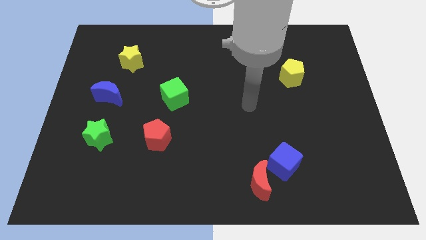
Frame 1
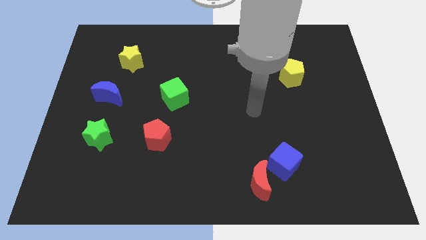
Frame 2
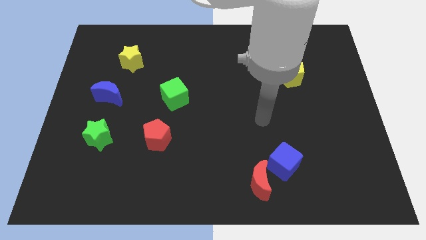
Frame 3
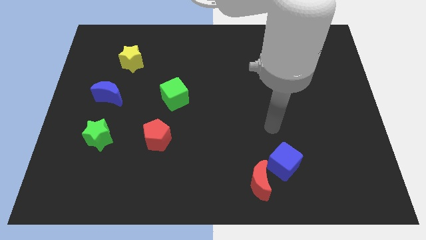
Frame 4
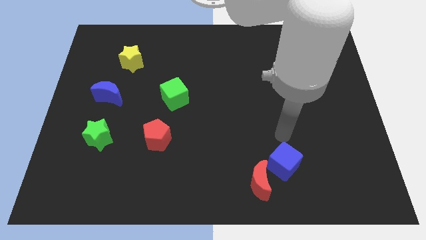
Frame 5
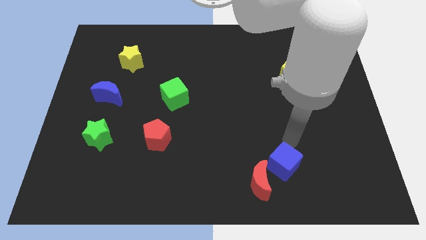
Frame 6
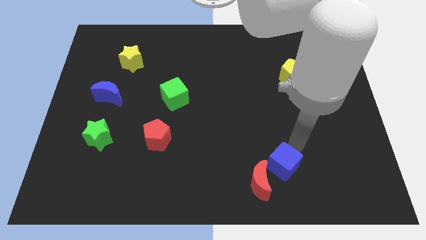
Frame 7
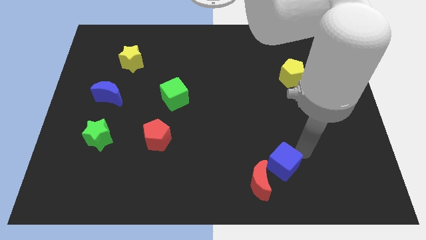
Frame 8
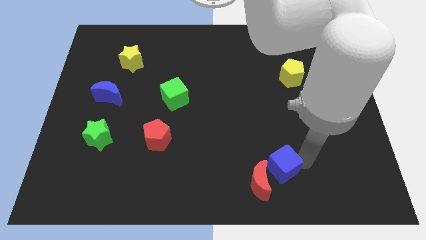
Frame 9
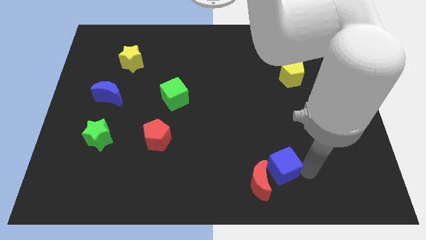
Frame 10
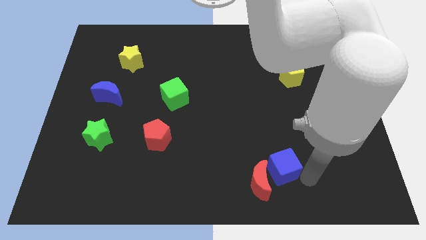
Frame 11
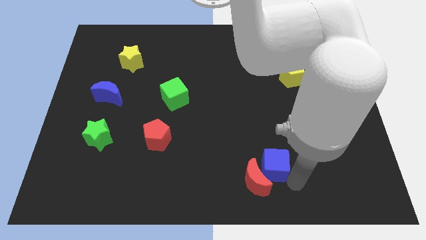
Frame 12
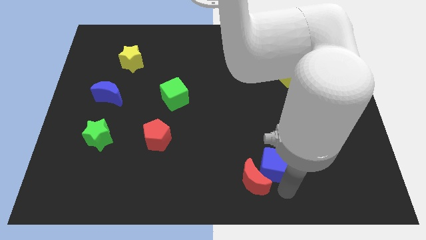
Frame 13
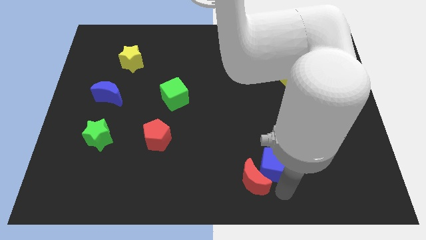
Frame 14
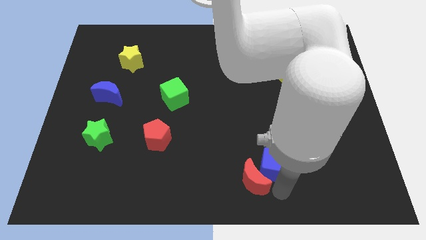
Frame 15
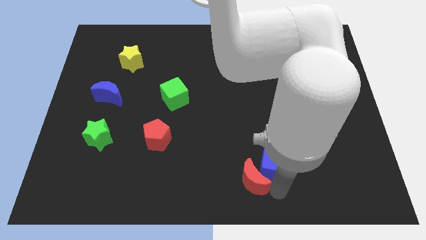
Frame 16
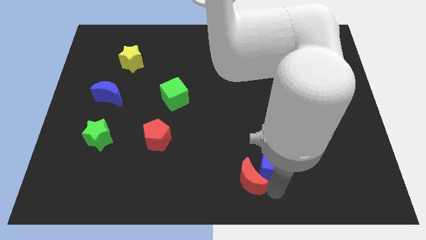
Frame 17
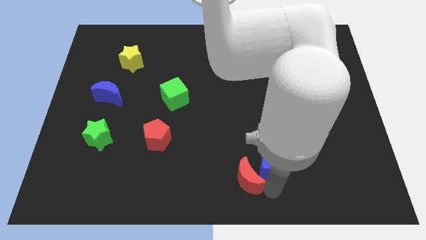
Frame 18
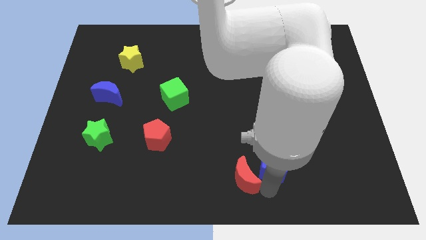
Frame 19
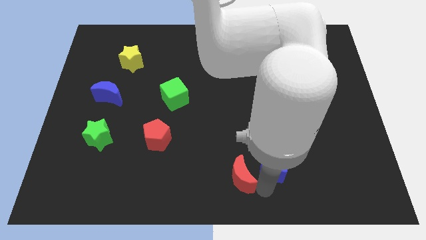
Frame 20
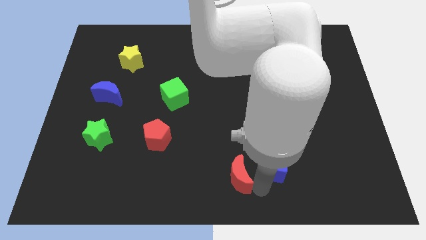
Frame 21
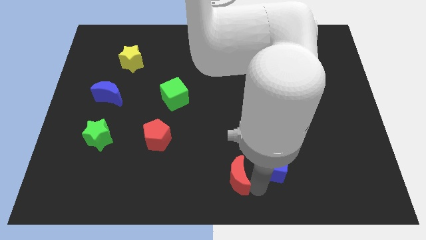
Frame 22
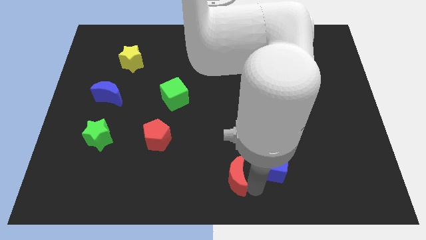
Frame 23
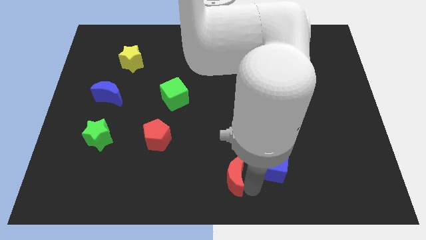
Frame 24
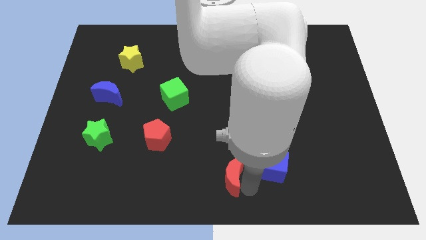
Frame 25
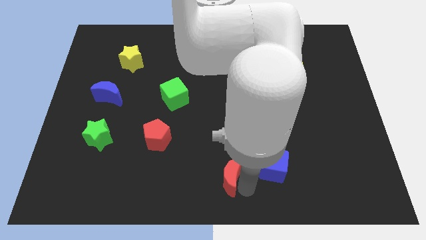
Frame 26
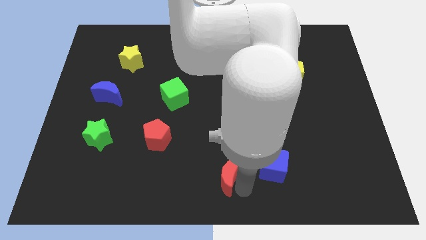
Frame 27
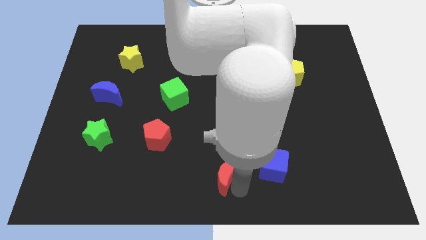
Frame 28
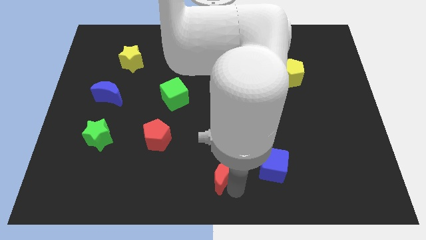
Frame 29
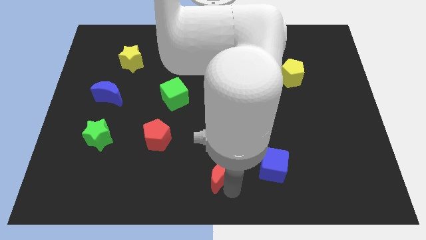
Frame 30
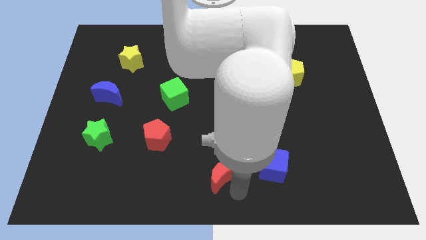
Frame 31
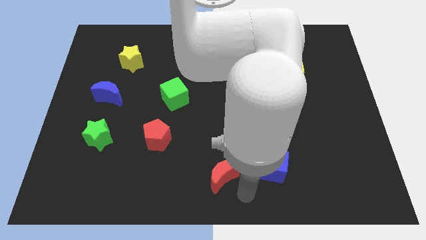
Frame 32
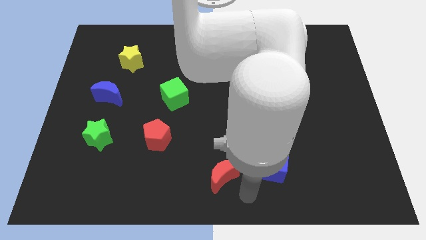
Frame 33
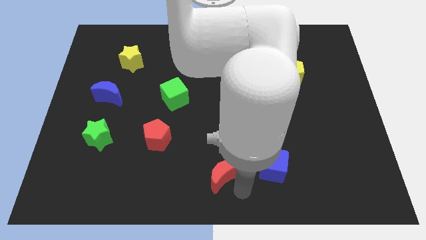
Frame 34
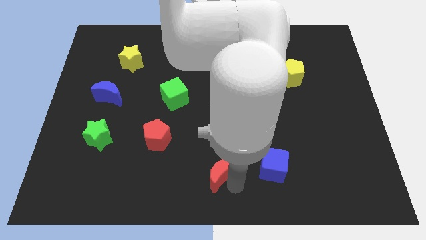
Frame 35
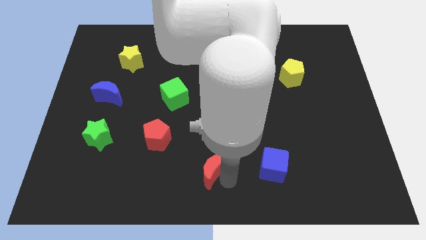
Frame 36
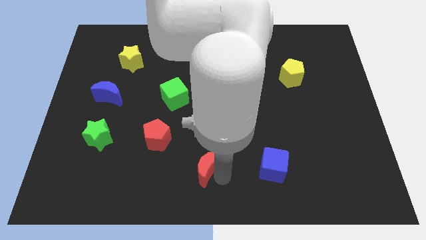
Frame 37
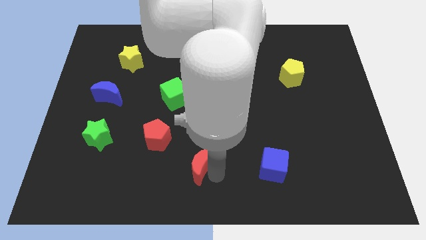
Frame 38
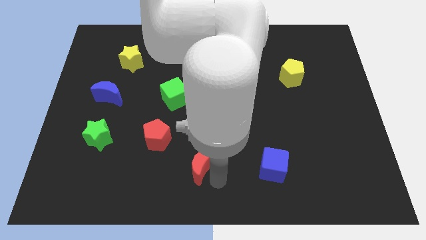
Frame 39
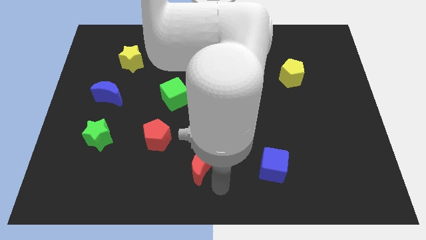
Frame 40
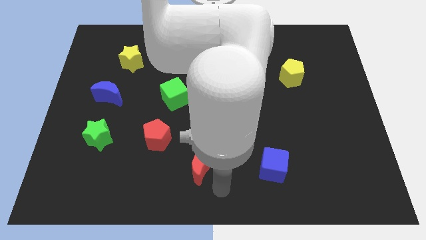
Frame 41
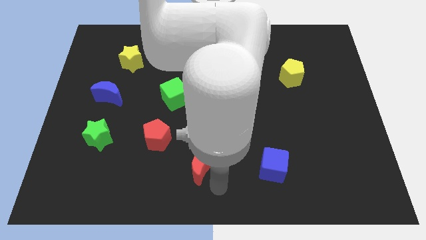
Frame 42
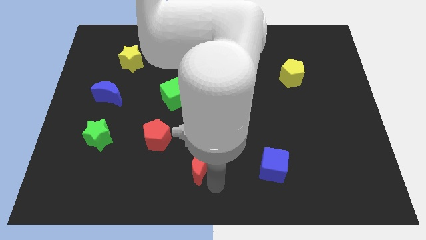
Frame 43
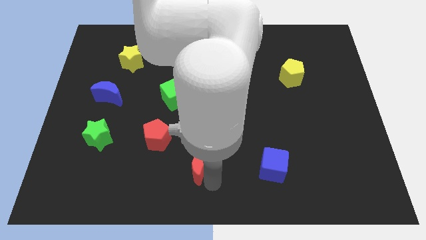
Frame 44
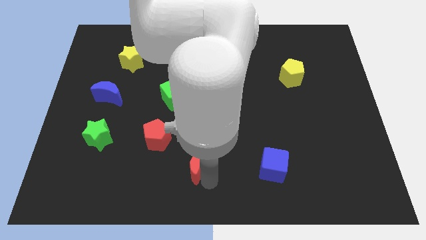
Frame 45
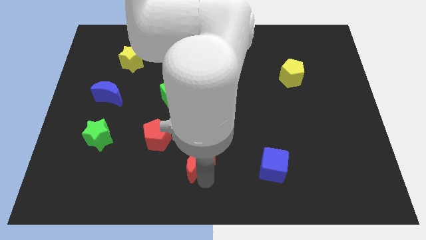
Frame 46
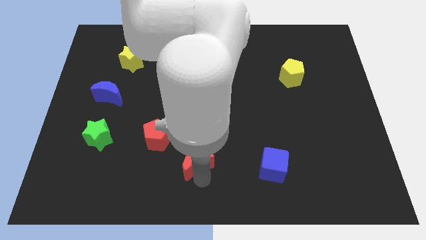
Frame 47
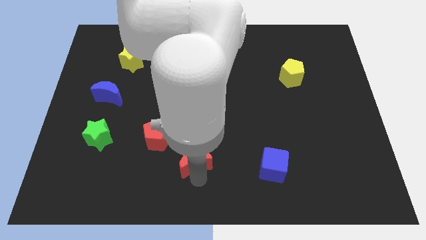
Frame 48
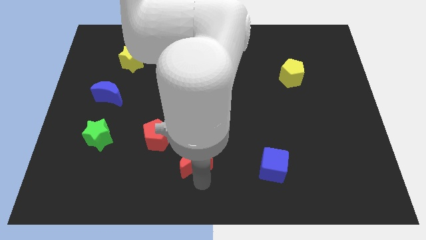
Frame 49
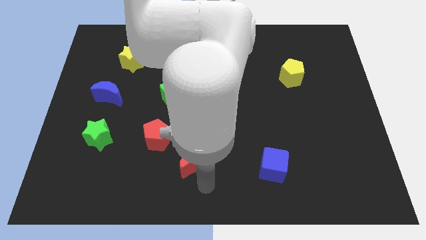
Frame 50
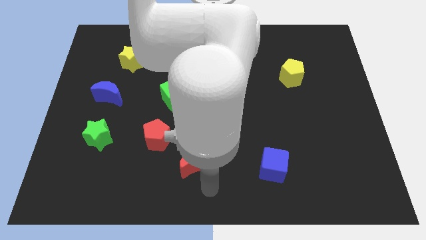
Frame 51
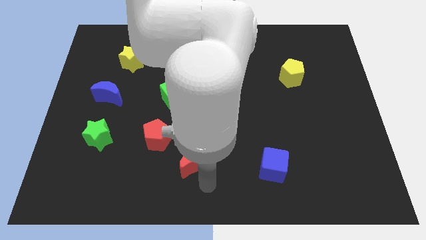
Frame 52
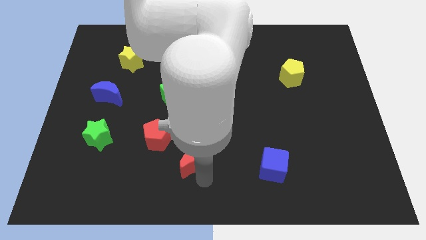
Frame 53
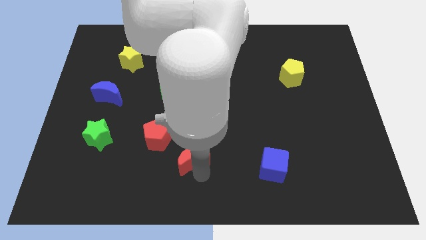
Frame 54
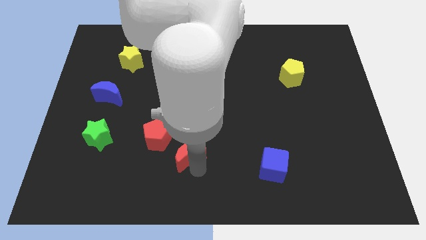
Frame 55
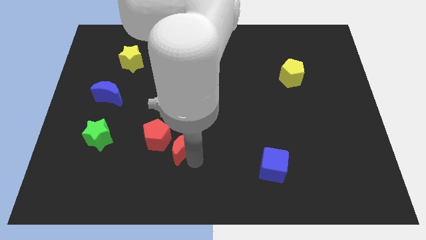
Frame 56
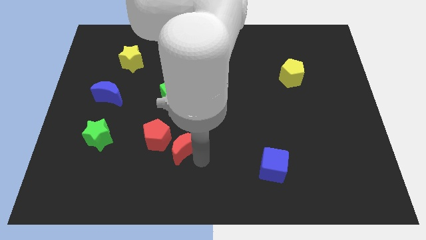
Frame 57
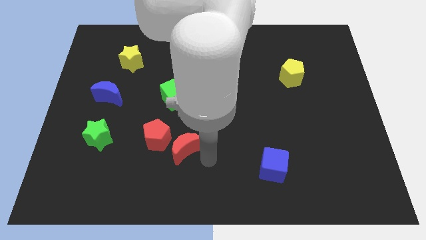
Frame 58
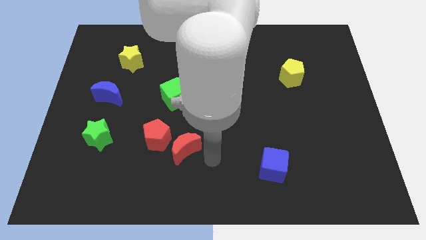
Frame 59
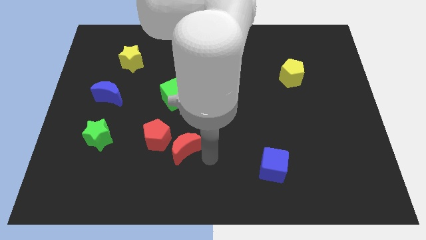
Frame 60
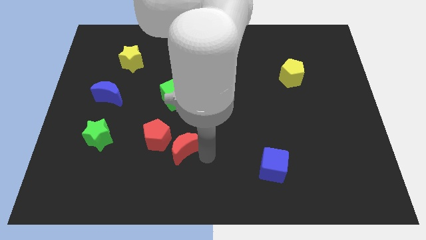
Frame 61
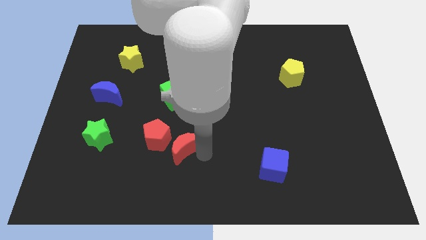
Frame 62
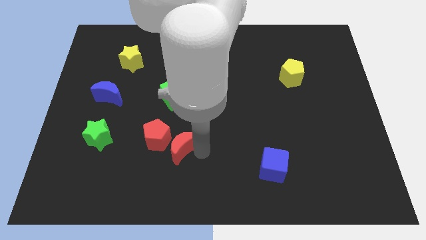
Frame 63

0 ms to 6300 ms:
slide the red moon towards the red pentagon

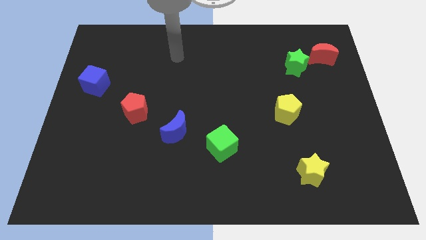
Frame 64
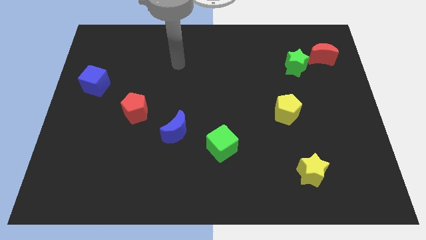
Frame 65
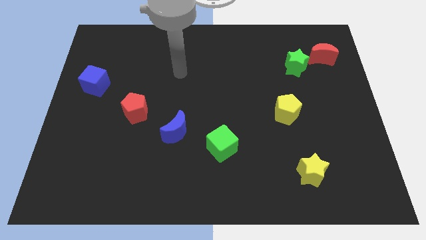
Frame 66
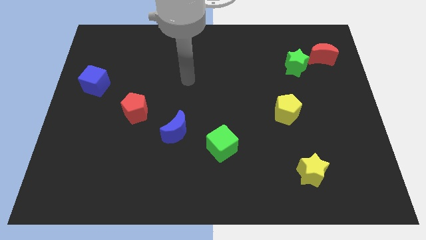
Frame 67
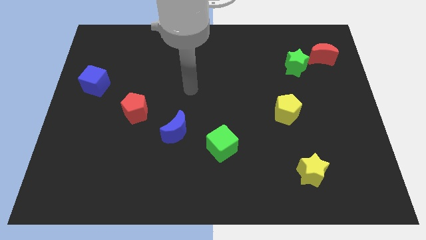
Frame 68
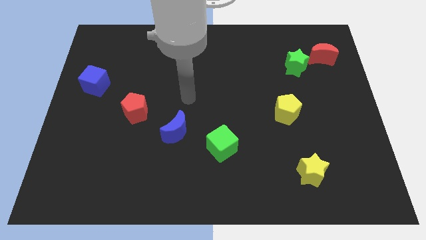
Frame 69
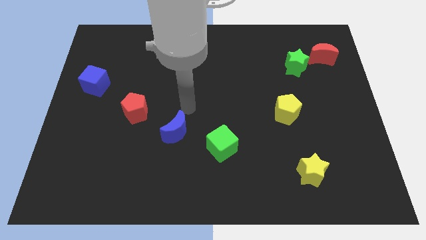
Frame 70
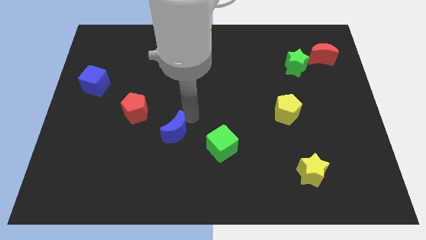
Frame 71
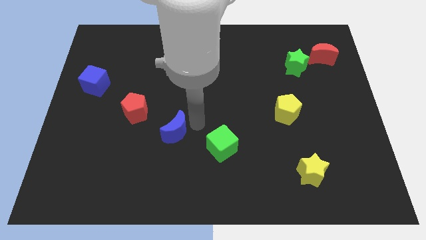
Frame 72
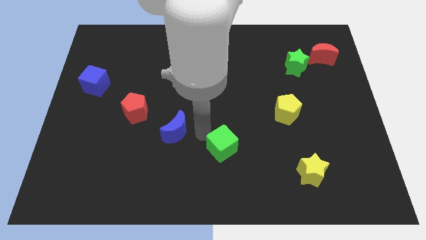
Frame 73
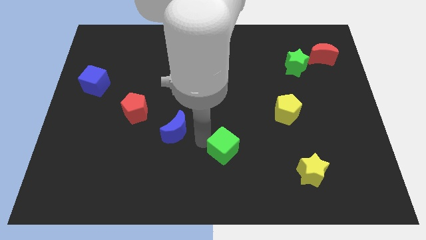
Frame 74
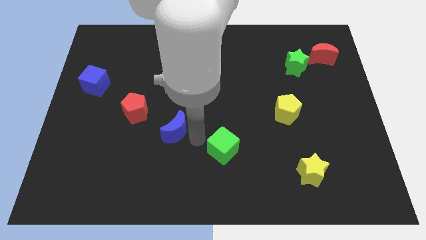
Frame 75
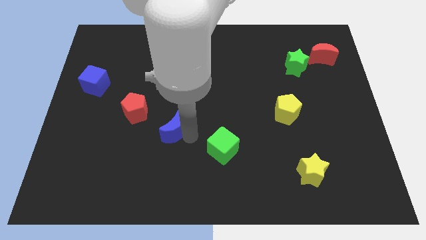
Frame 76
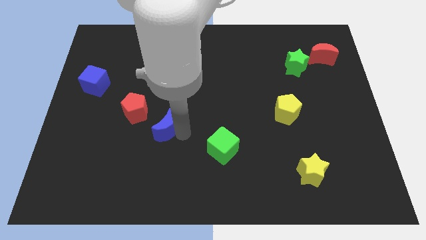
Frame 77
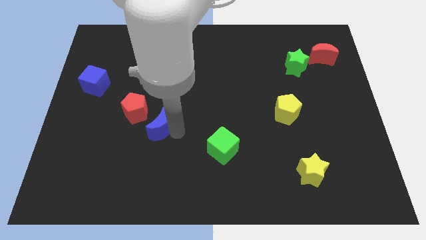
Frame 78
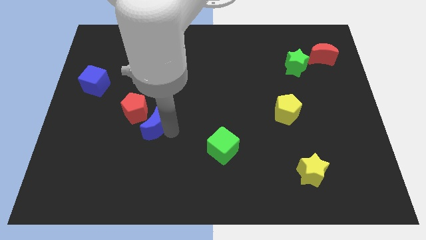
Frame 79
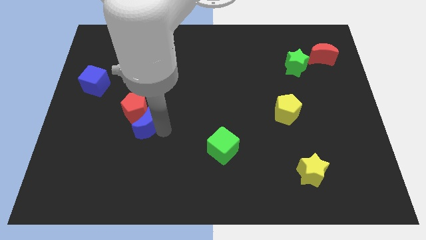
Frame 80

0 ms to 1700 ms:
slide the blue moon to the red pentagon

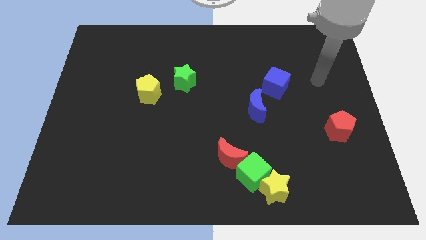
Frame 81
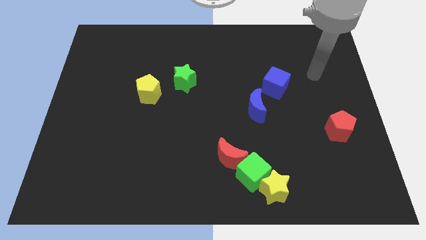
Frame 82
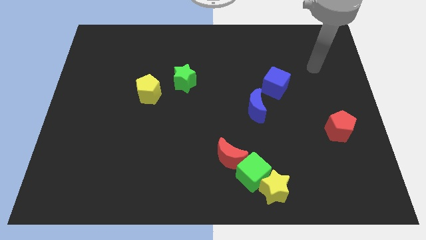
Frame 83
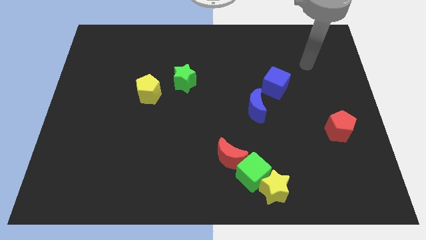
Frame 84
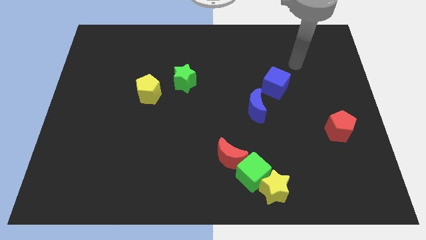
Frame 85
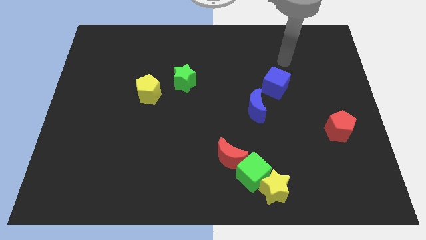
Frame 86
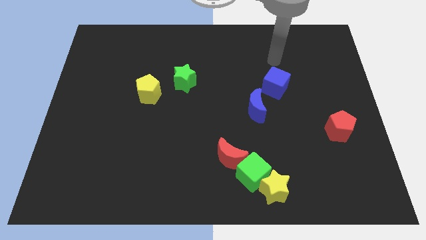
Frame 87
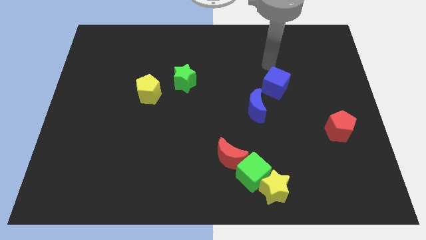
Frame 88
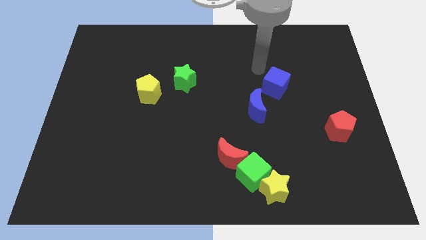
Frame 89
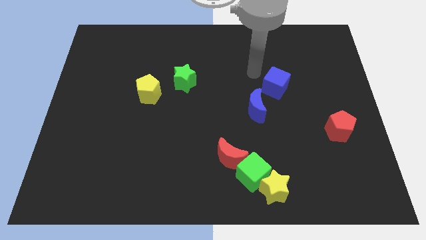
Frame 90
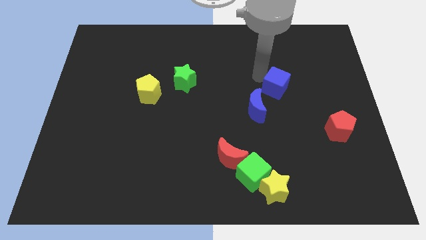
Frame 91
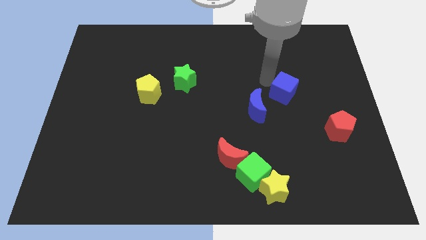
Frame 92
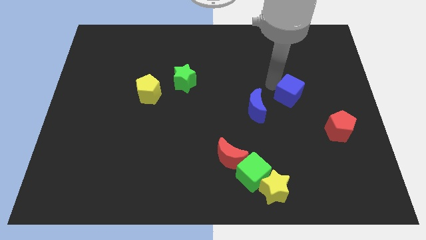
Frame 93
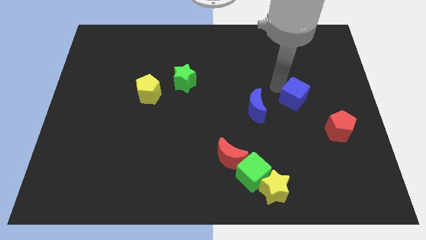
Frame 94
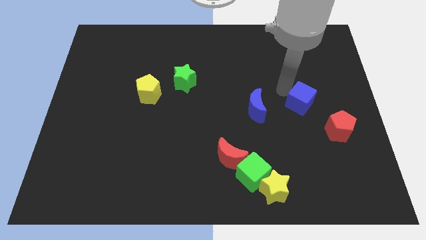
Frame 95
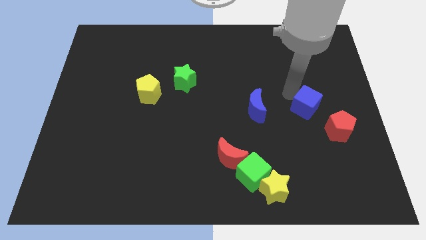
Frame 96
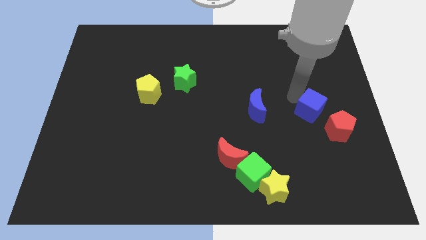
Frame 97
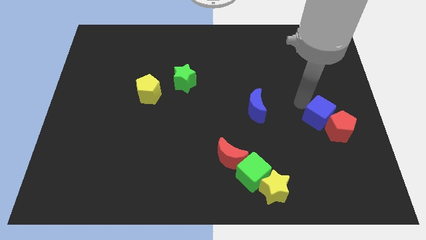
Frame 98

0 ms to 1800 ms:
slide the blue cube to the red pentagon
